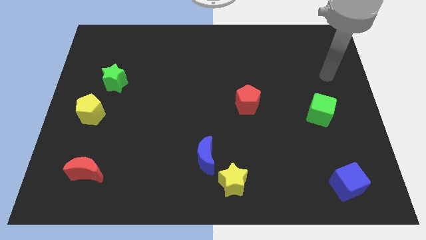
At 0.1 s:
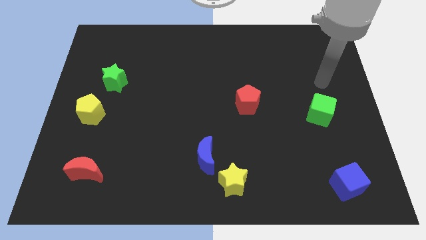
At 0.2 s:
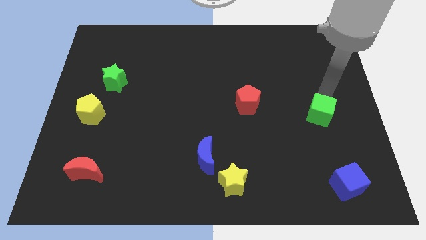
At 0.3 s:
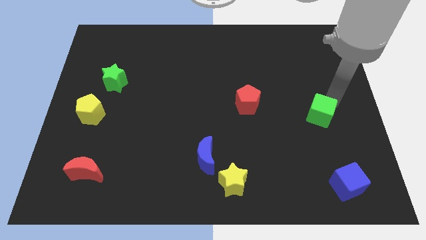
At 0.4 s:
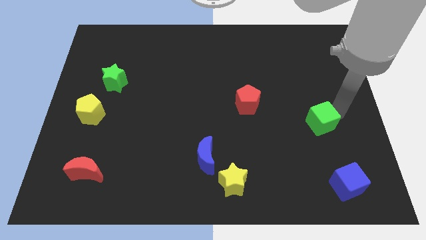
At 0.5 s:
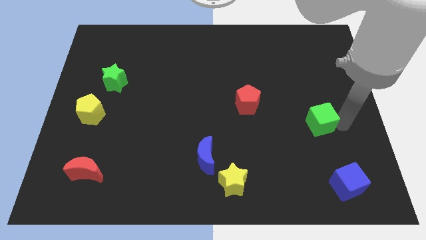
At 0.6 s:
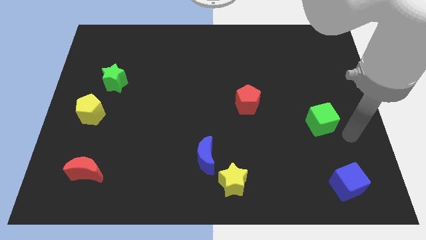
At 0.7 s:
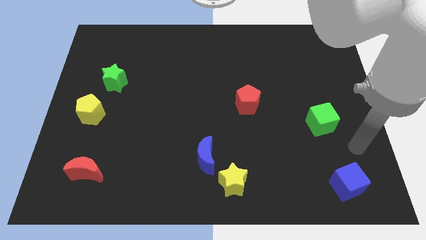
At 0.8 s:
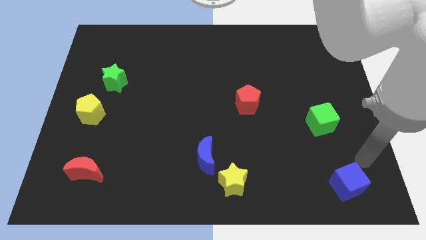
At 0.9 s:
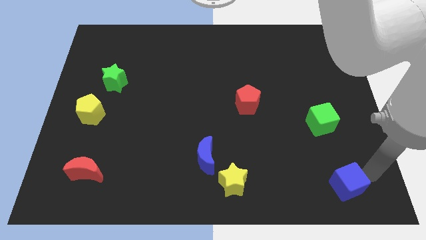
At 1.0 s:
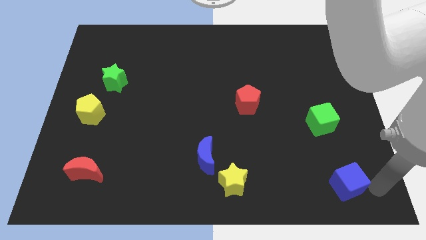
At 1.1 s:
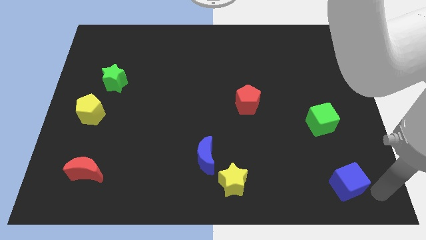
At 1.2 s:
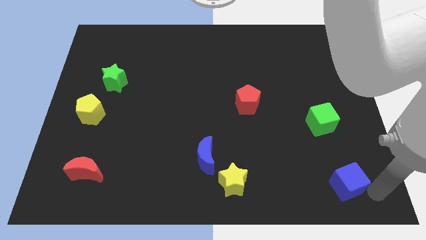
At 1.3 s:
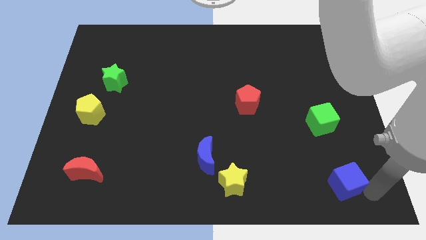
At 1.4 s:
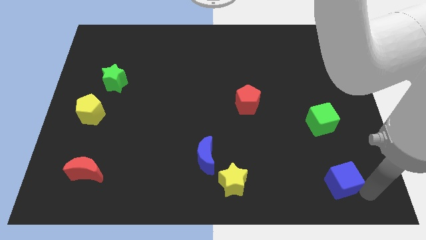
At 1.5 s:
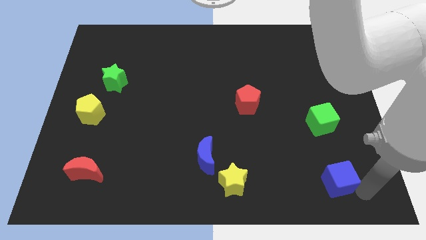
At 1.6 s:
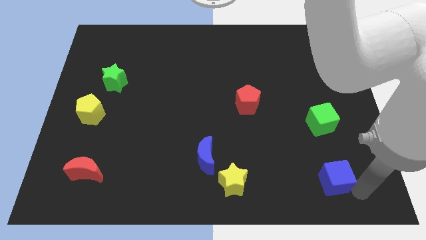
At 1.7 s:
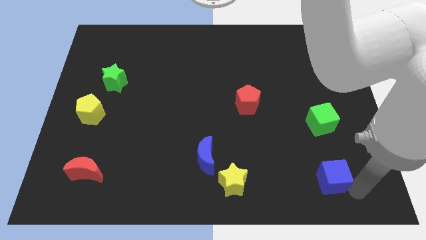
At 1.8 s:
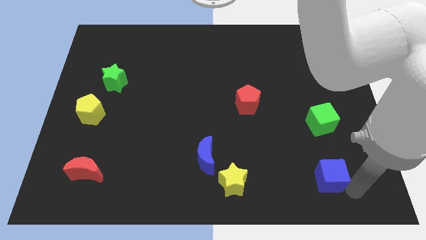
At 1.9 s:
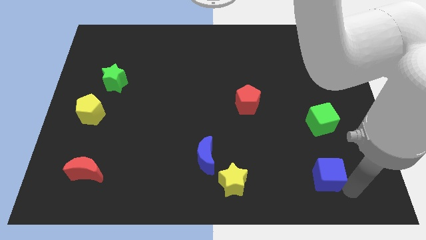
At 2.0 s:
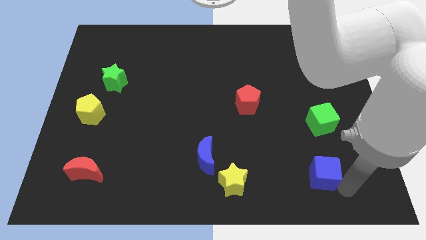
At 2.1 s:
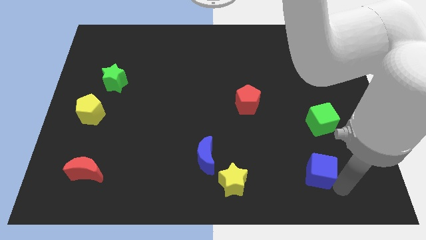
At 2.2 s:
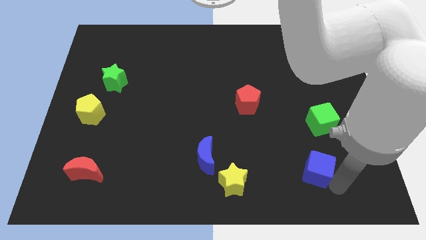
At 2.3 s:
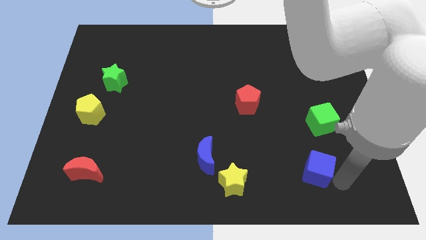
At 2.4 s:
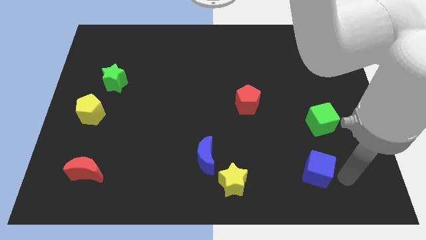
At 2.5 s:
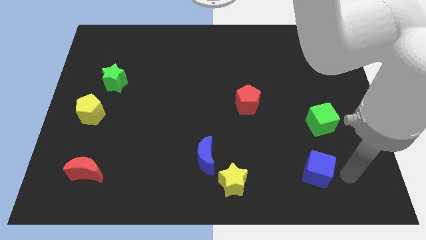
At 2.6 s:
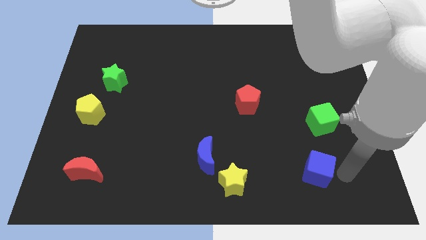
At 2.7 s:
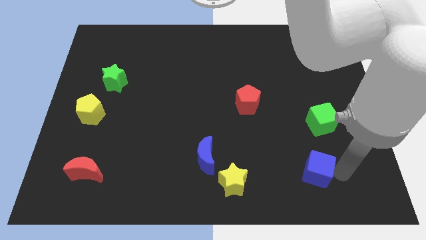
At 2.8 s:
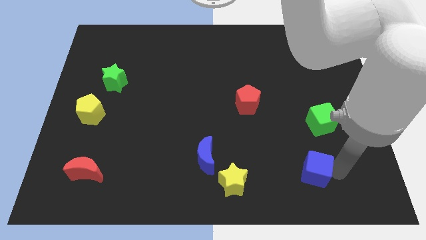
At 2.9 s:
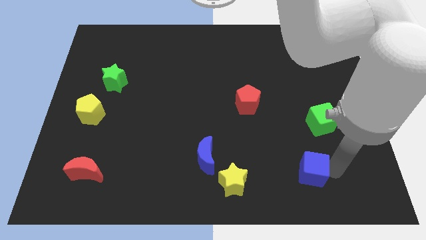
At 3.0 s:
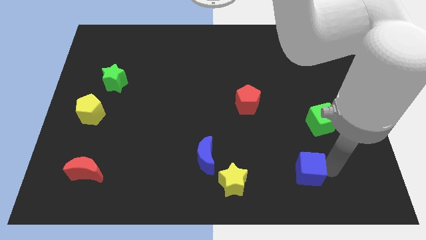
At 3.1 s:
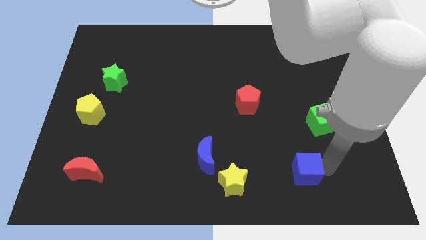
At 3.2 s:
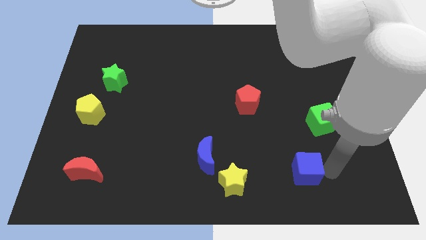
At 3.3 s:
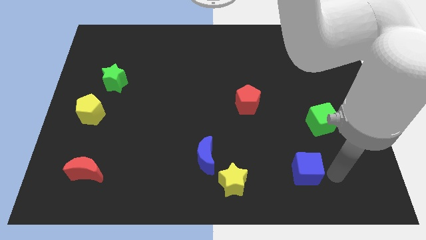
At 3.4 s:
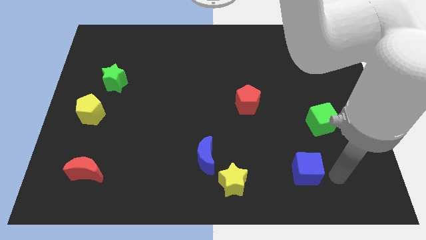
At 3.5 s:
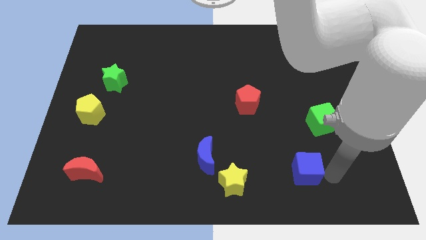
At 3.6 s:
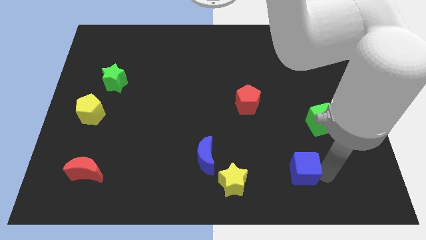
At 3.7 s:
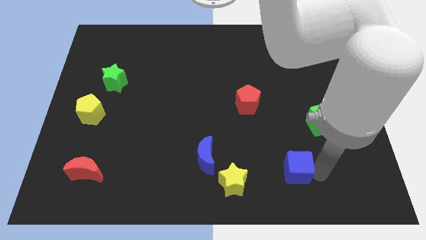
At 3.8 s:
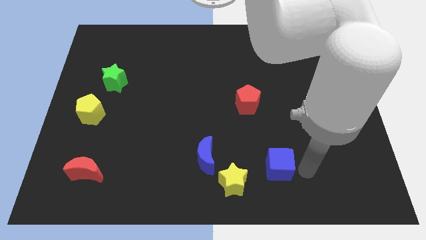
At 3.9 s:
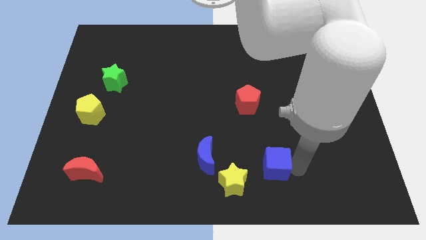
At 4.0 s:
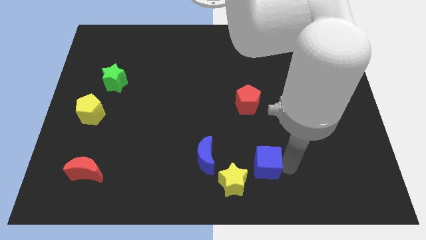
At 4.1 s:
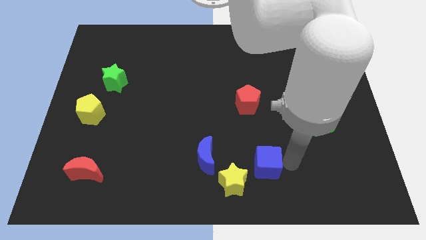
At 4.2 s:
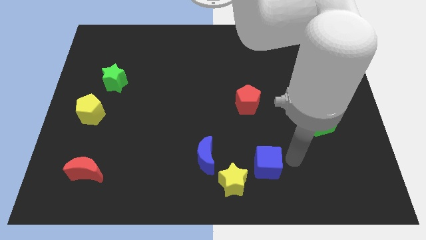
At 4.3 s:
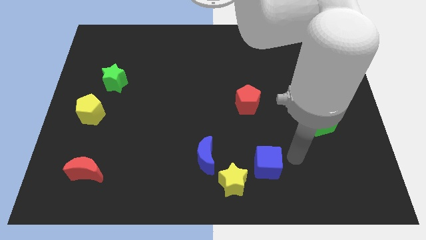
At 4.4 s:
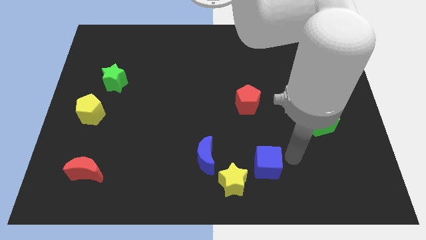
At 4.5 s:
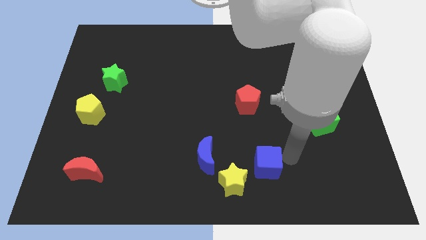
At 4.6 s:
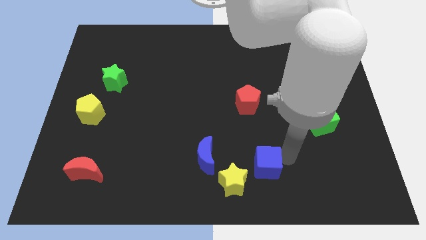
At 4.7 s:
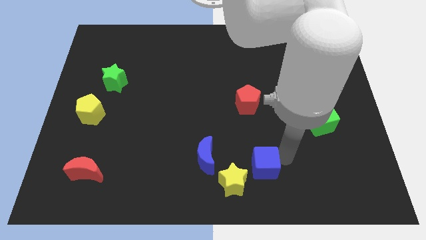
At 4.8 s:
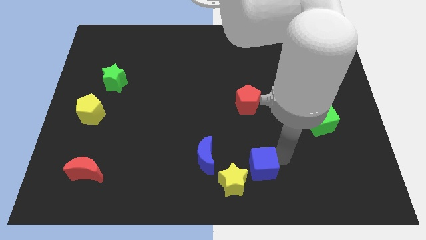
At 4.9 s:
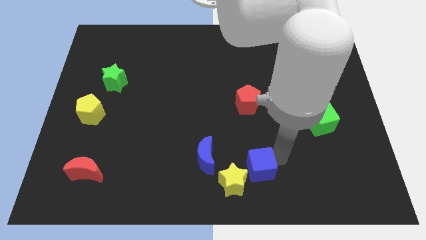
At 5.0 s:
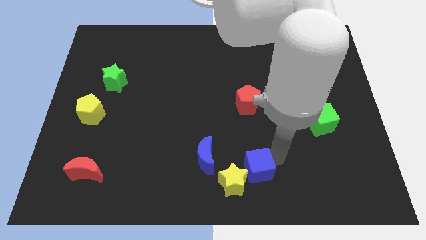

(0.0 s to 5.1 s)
push the blue cube towards the yellow star

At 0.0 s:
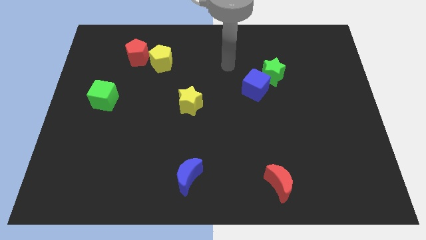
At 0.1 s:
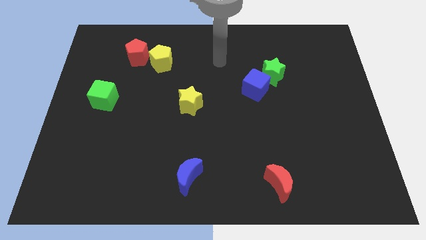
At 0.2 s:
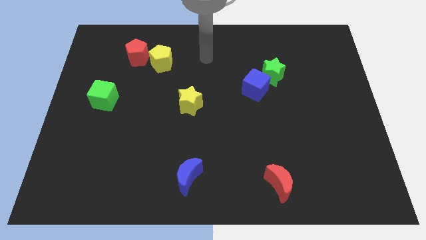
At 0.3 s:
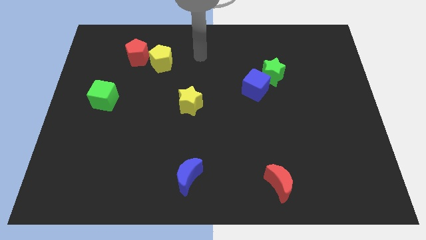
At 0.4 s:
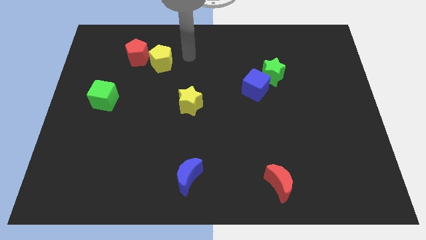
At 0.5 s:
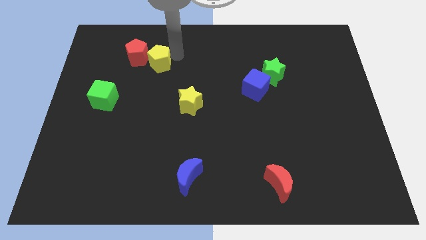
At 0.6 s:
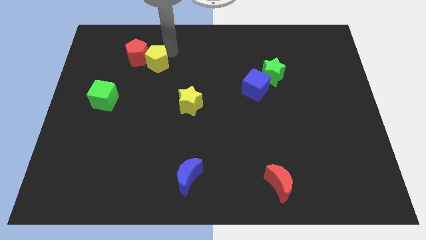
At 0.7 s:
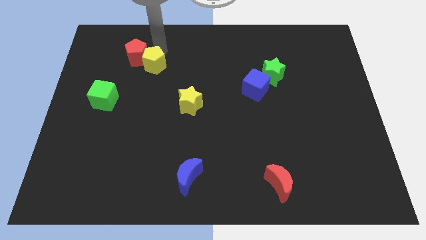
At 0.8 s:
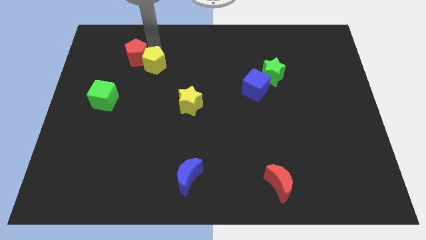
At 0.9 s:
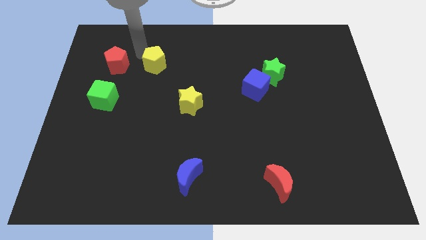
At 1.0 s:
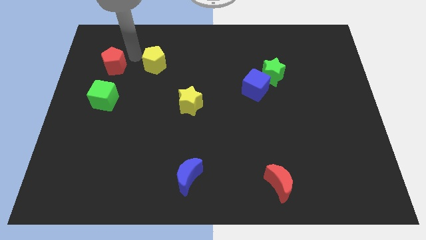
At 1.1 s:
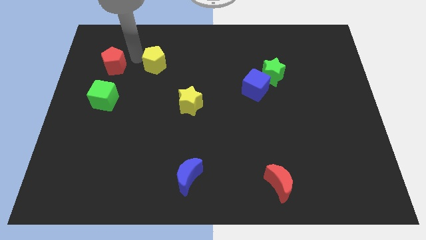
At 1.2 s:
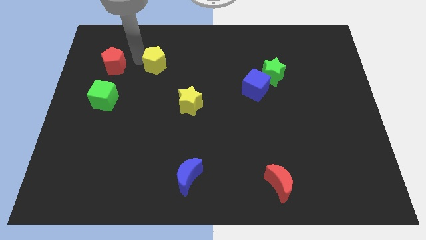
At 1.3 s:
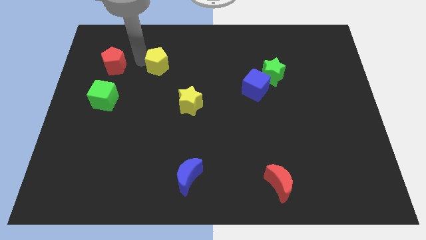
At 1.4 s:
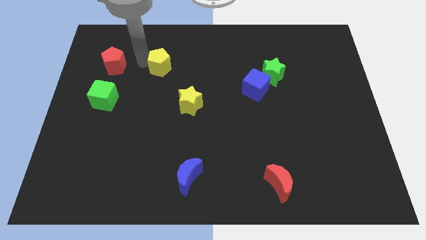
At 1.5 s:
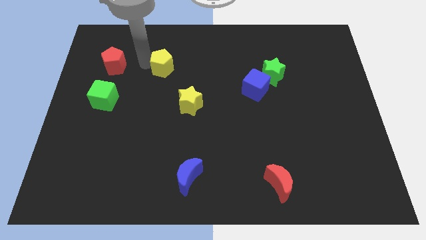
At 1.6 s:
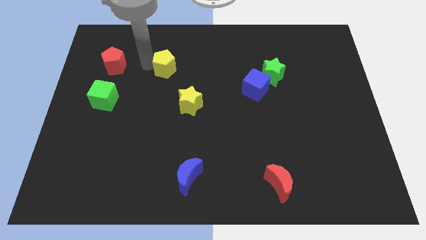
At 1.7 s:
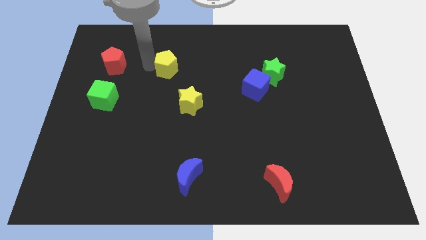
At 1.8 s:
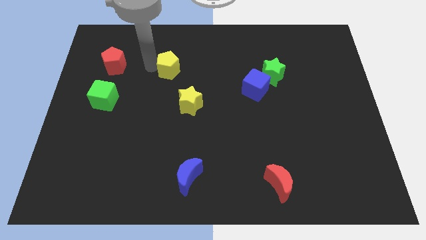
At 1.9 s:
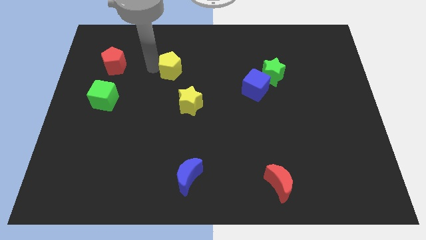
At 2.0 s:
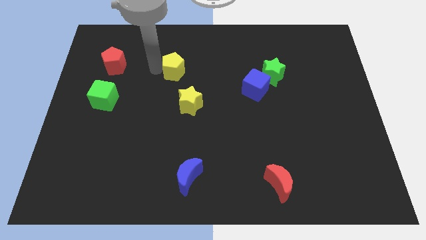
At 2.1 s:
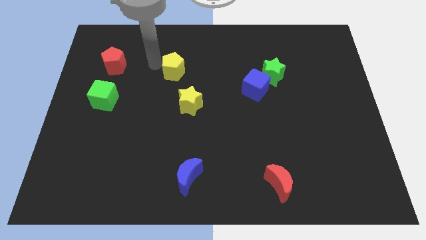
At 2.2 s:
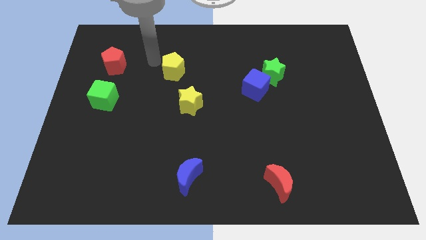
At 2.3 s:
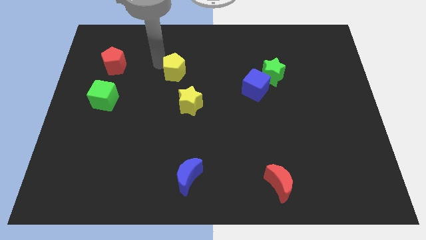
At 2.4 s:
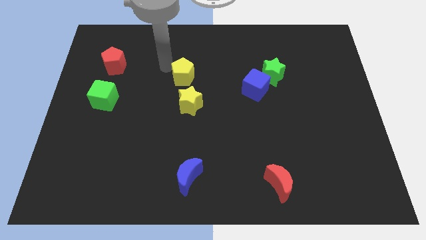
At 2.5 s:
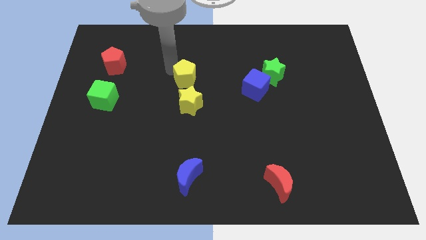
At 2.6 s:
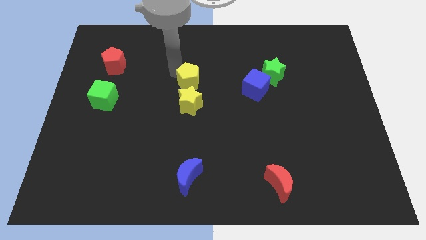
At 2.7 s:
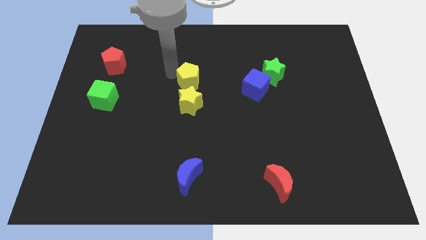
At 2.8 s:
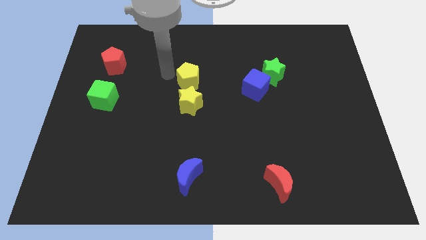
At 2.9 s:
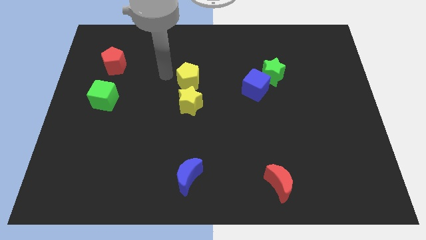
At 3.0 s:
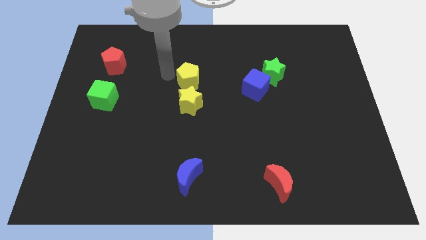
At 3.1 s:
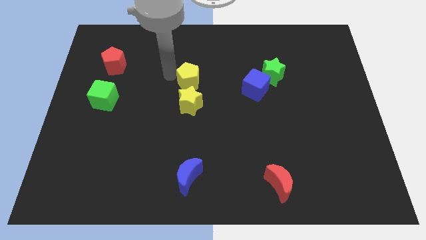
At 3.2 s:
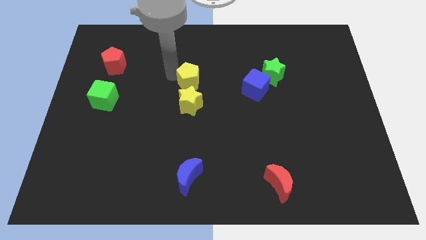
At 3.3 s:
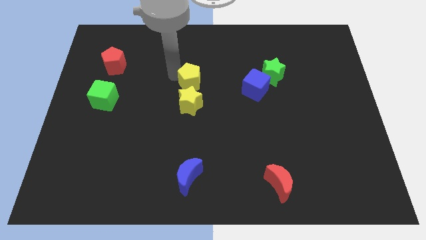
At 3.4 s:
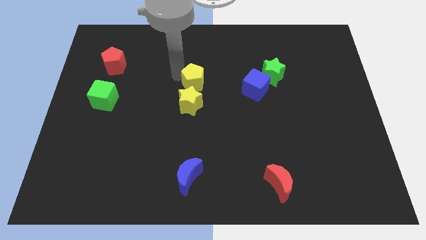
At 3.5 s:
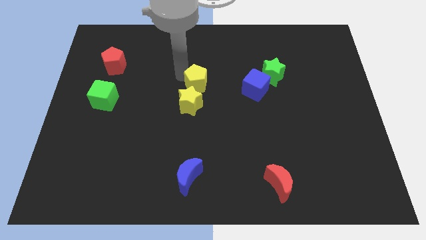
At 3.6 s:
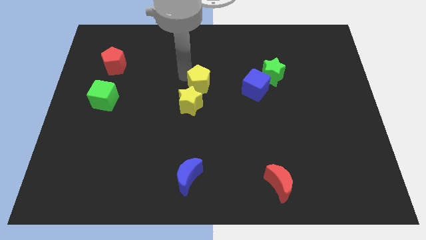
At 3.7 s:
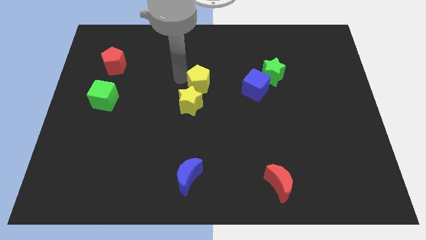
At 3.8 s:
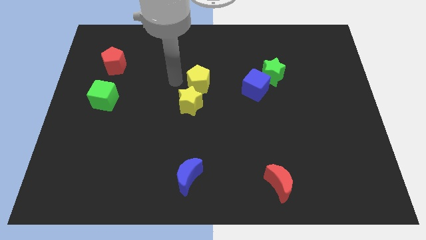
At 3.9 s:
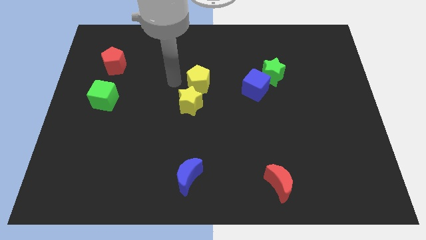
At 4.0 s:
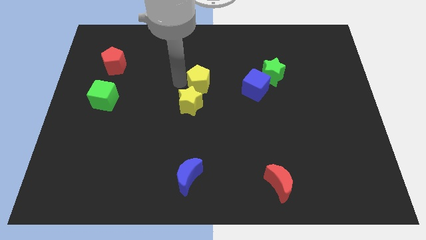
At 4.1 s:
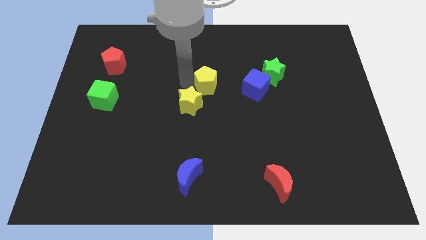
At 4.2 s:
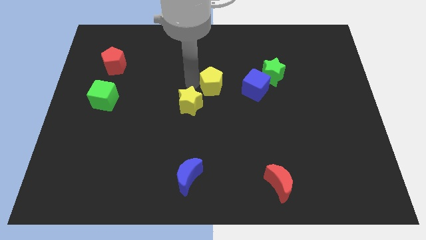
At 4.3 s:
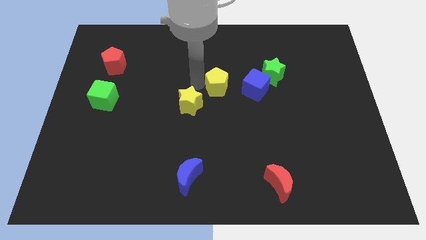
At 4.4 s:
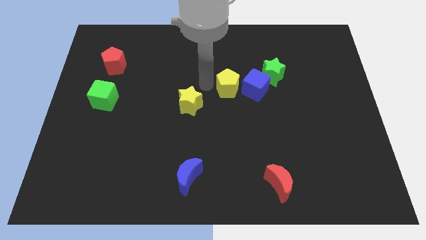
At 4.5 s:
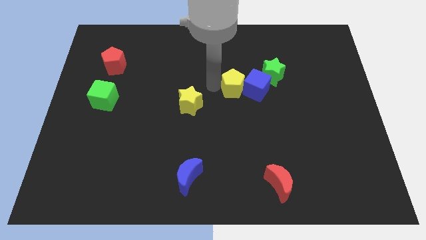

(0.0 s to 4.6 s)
put the yellow pentagon to the blue cube
